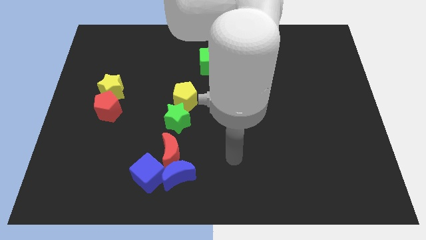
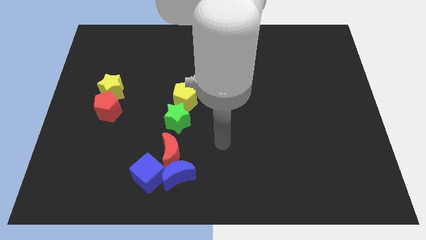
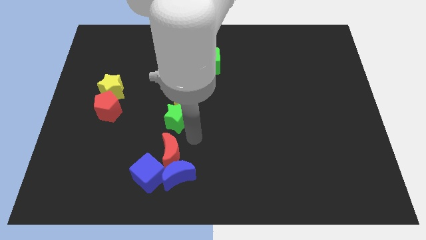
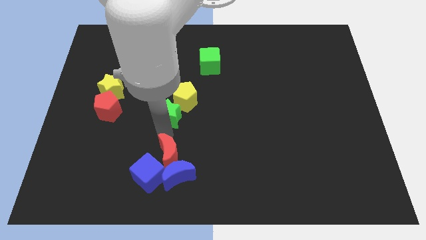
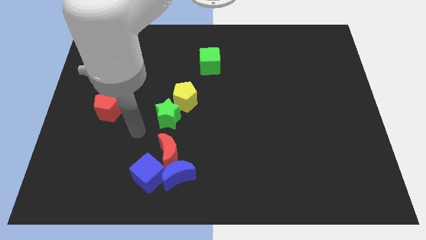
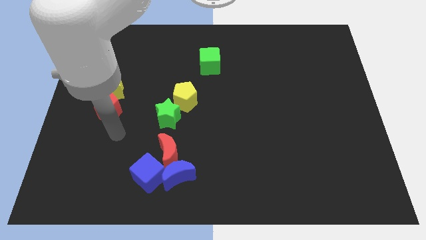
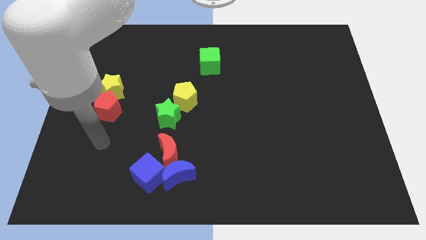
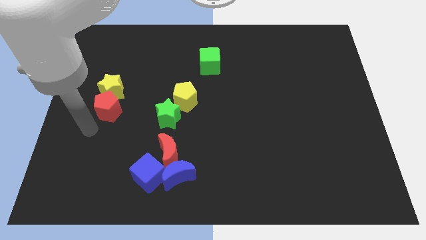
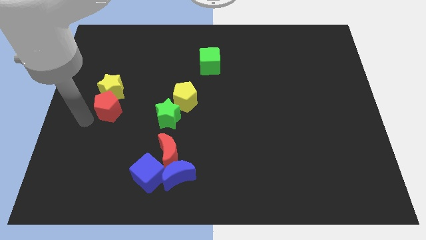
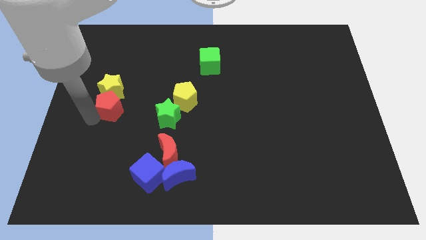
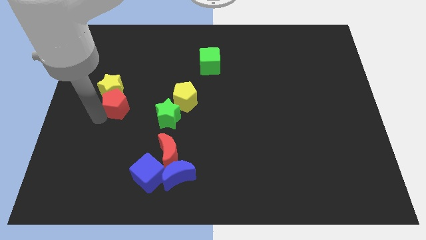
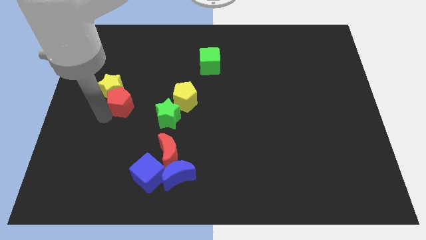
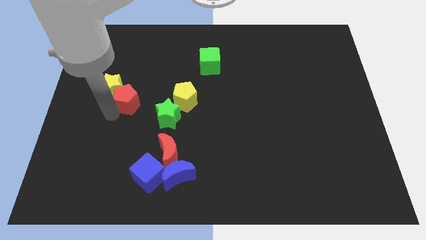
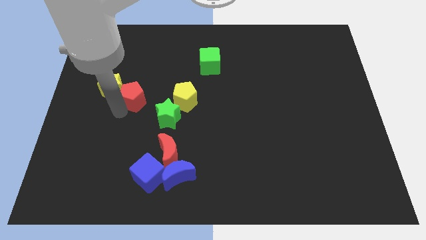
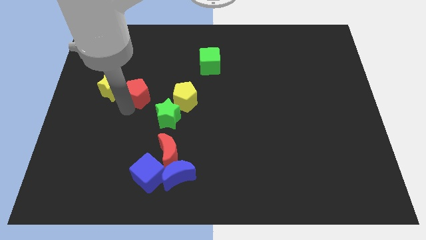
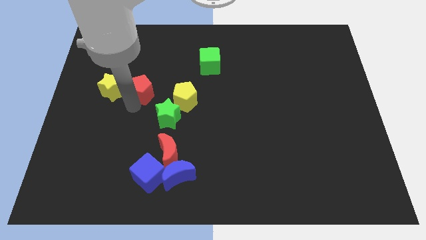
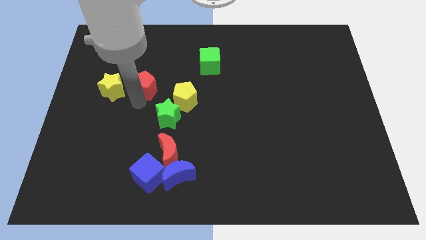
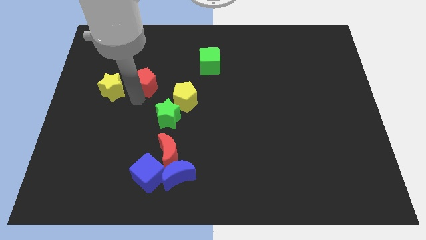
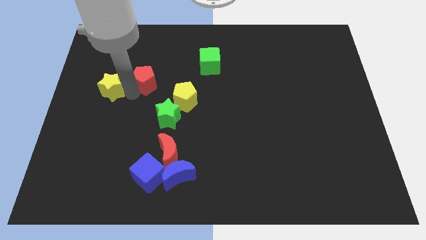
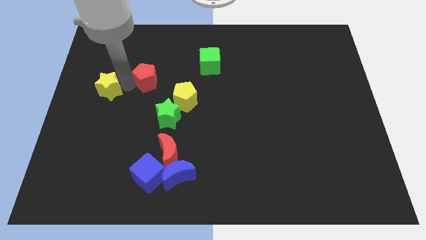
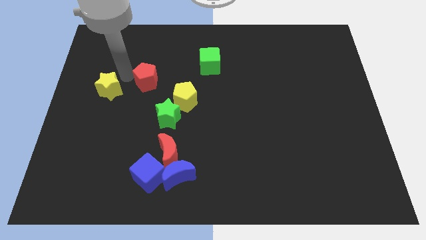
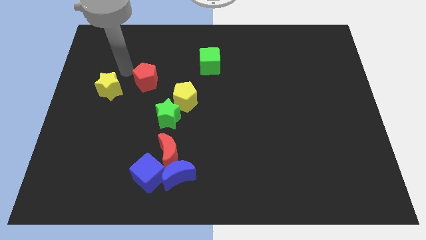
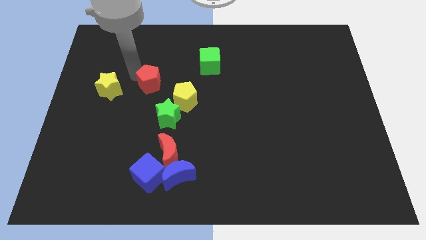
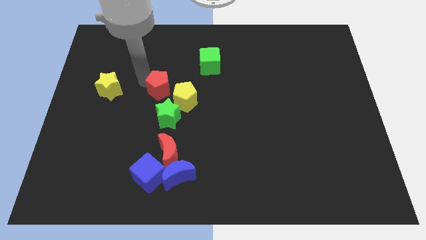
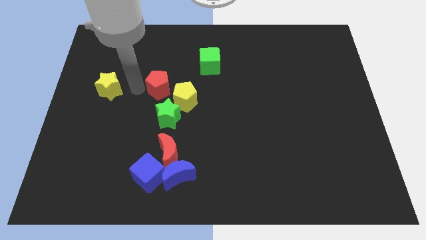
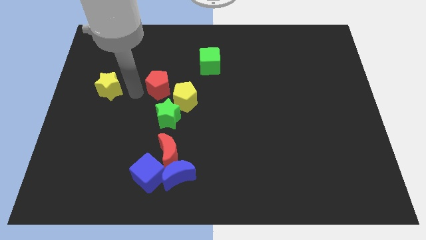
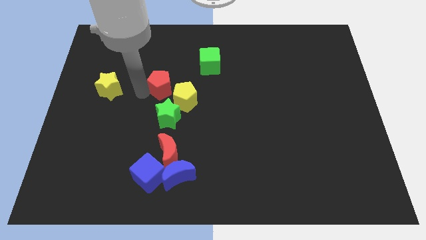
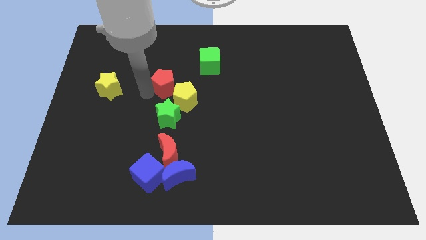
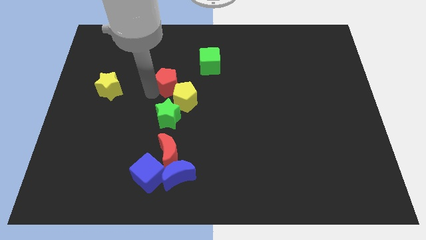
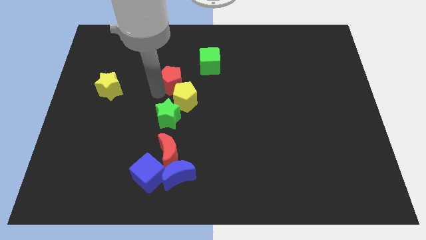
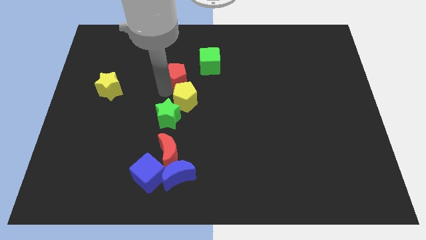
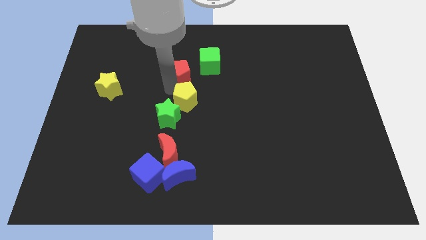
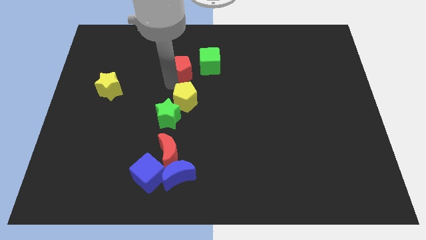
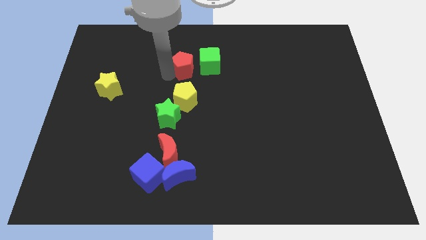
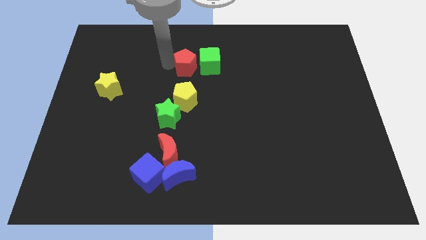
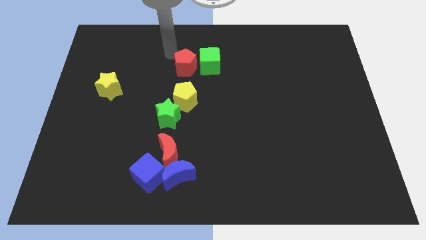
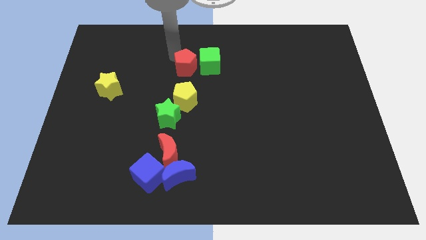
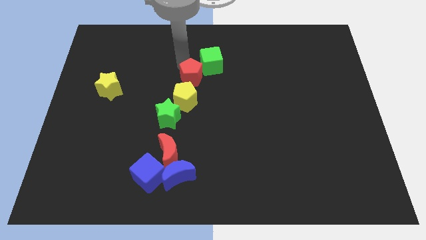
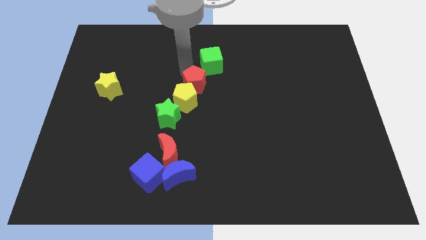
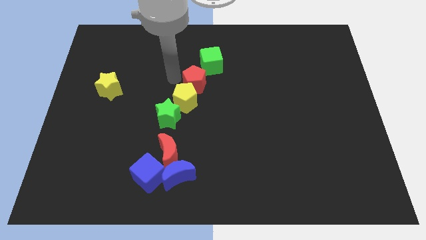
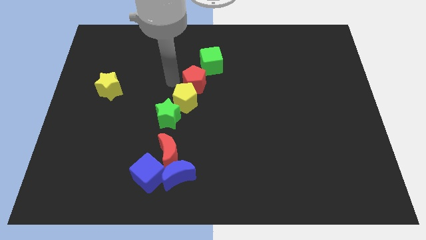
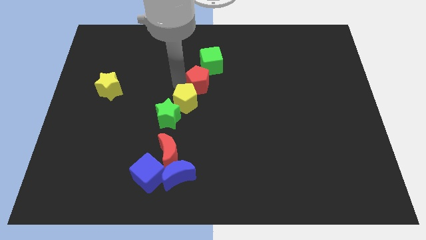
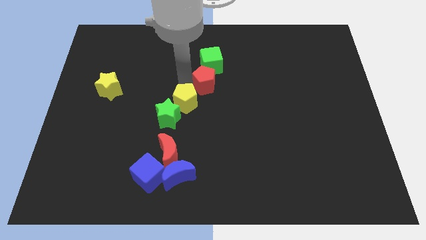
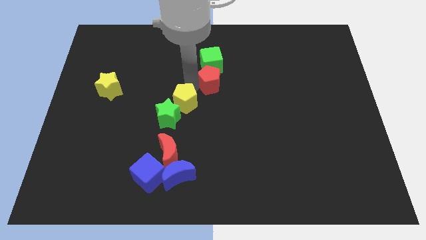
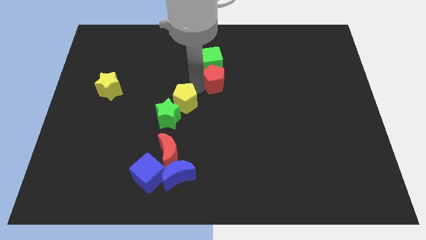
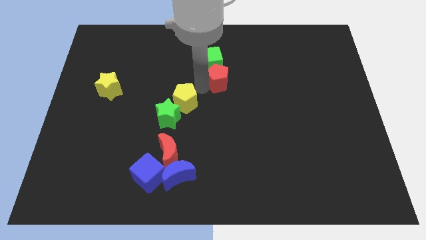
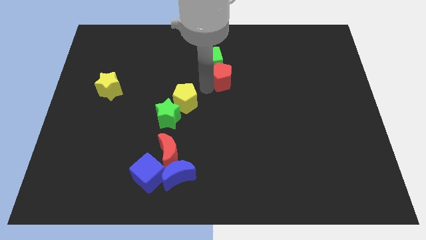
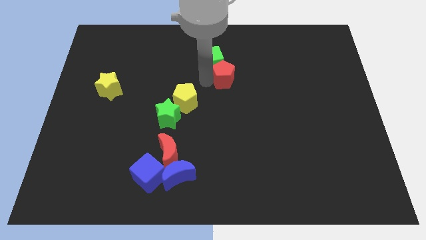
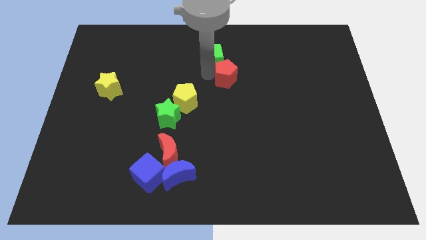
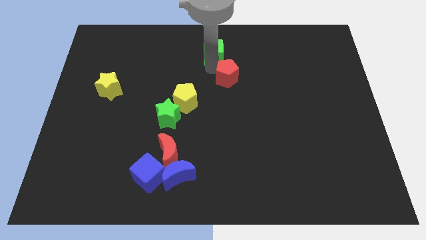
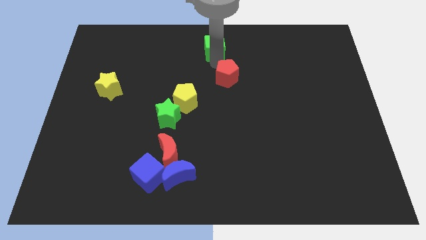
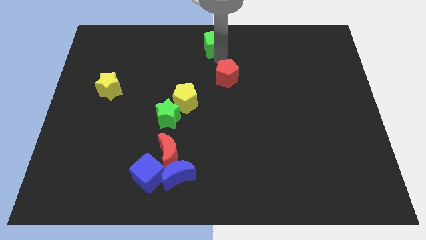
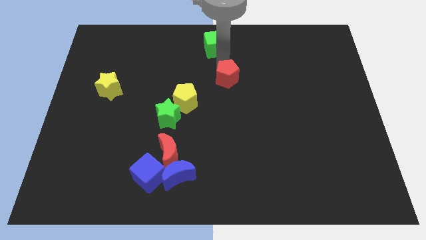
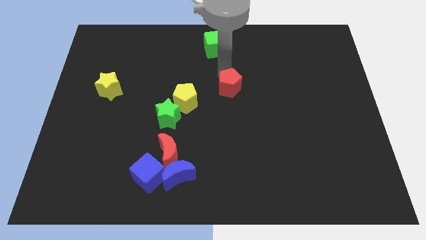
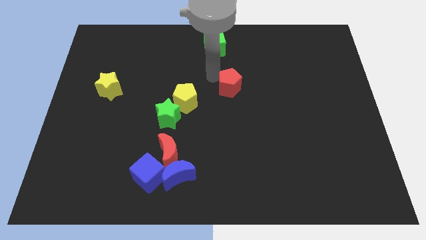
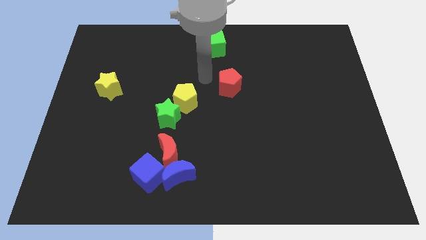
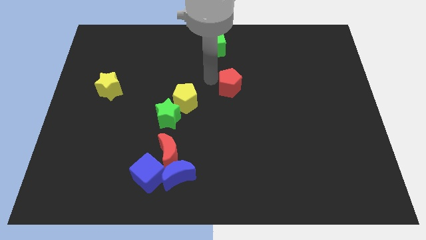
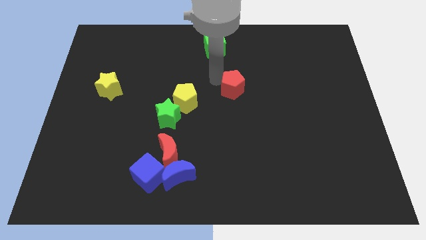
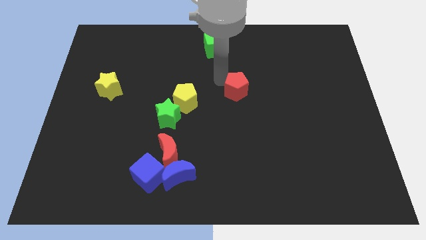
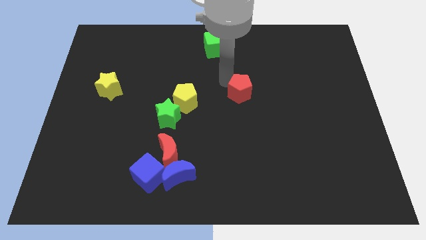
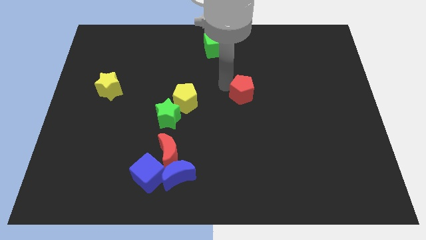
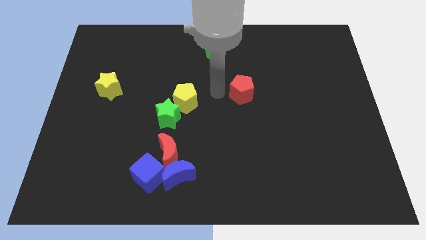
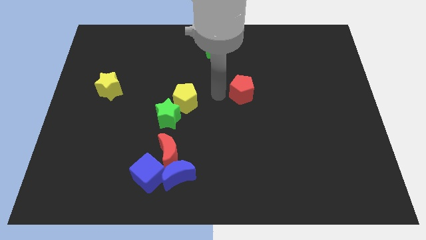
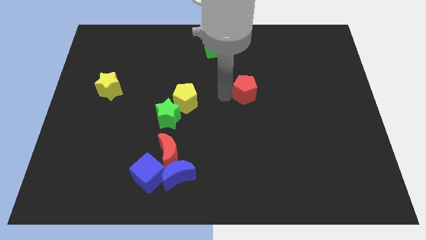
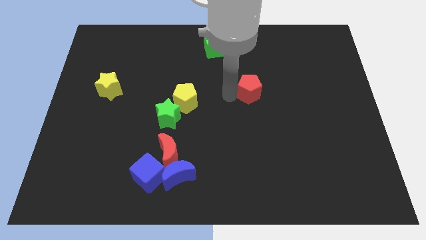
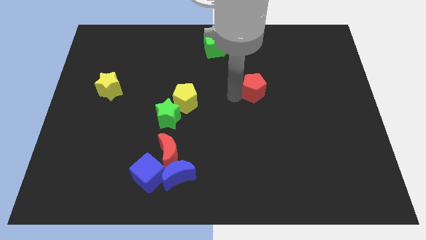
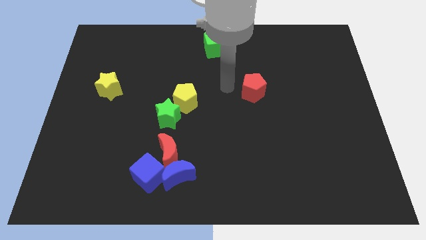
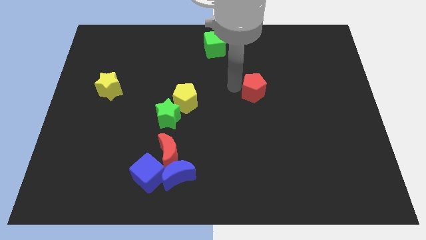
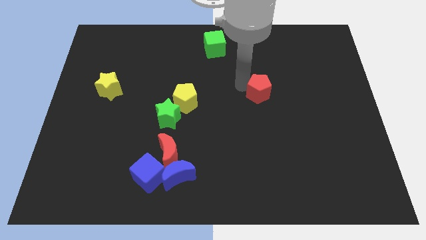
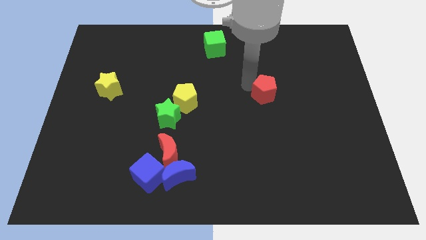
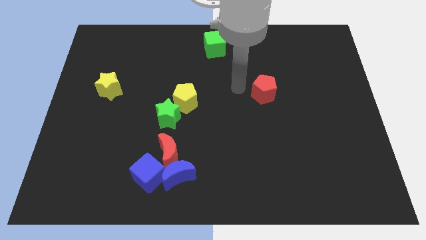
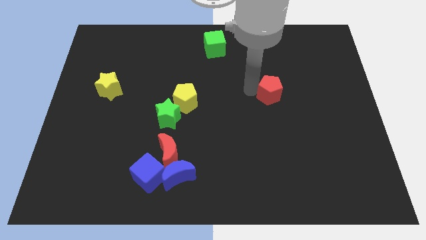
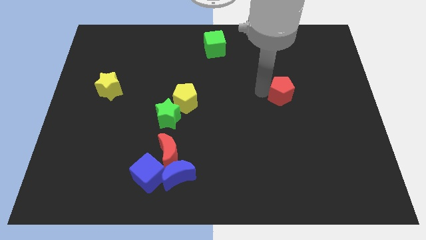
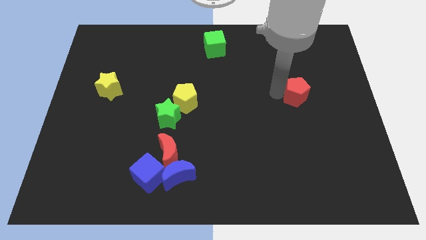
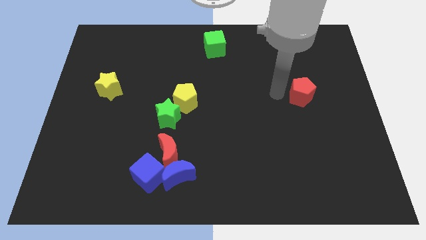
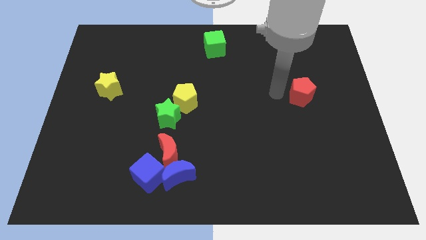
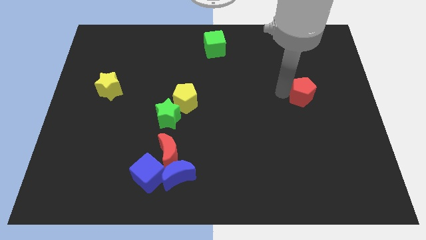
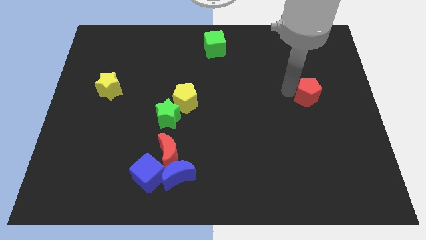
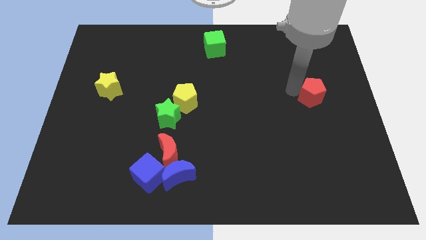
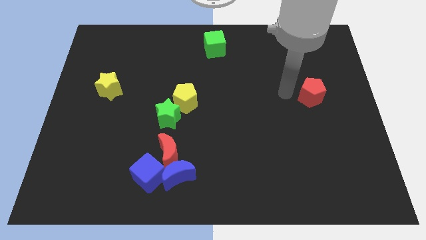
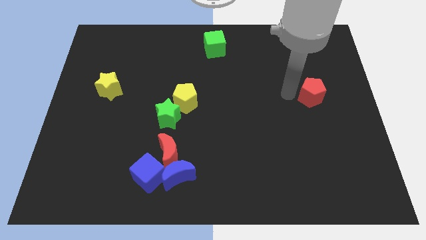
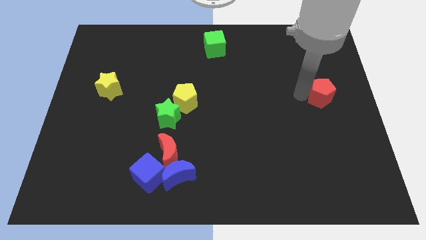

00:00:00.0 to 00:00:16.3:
slide the red pentagon to the right side of the board
